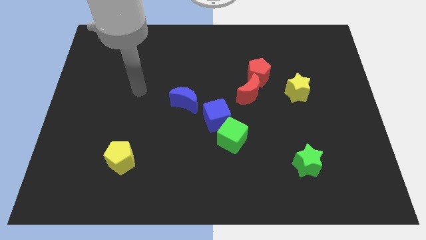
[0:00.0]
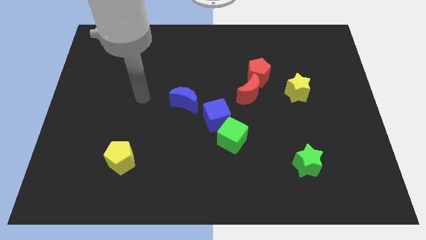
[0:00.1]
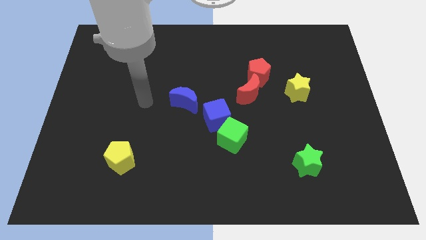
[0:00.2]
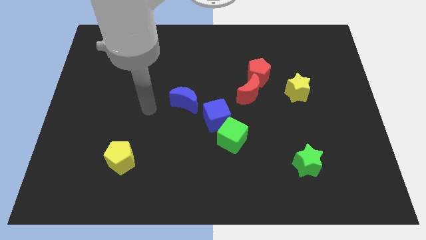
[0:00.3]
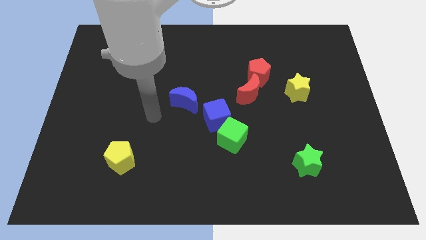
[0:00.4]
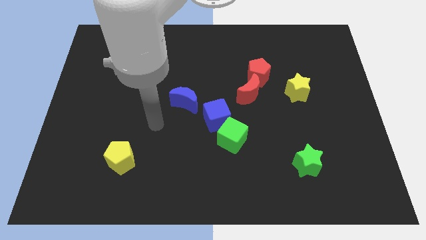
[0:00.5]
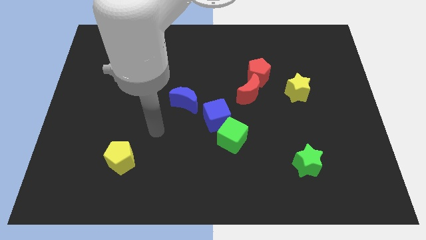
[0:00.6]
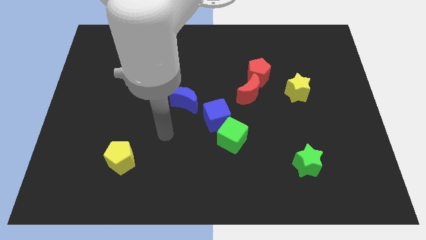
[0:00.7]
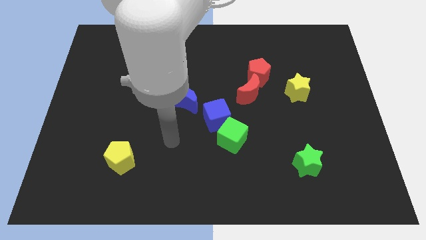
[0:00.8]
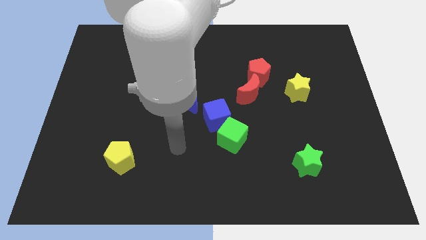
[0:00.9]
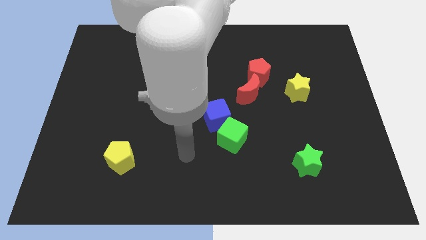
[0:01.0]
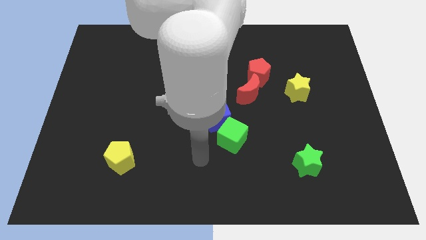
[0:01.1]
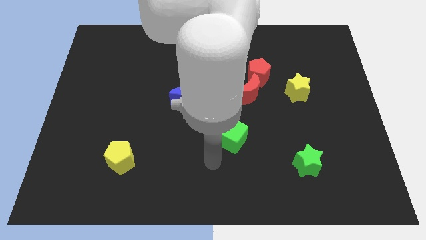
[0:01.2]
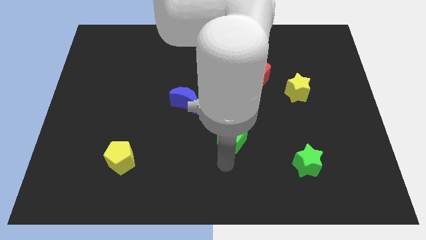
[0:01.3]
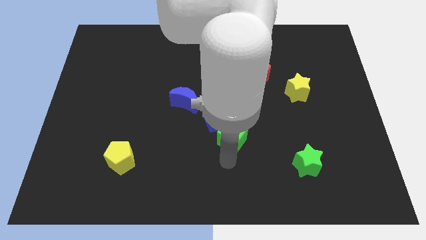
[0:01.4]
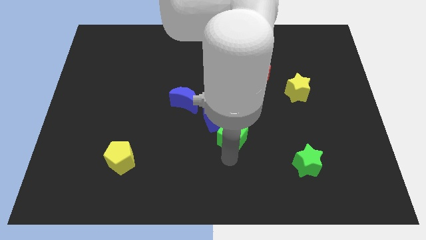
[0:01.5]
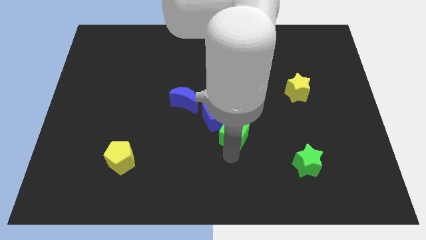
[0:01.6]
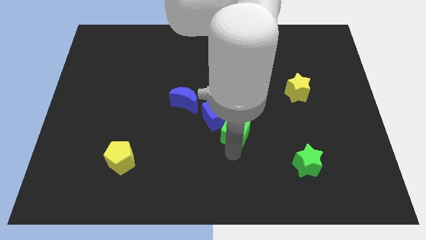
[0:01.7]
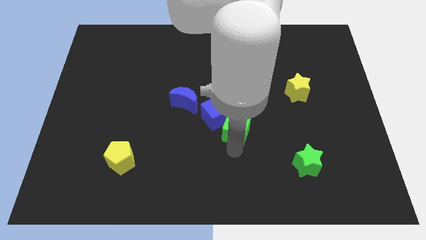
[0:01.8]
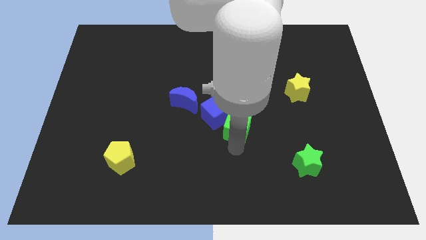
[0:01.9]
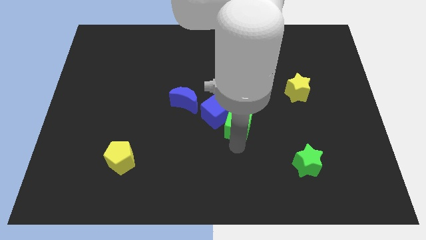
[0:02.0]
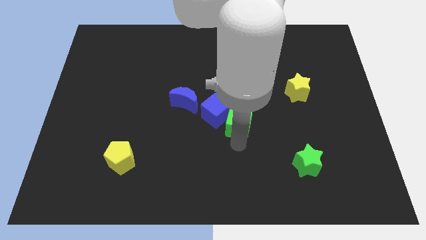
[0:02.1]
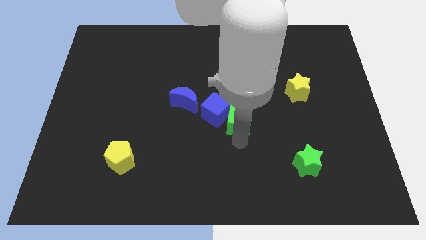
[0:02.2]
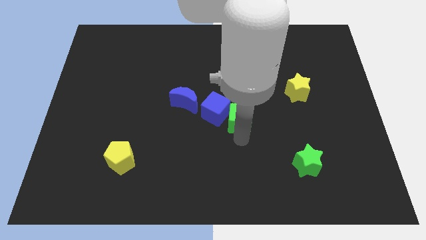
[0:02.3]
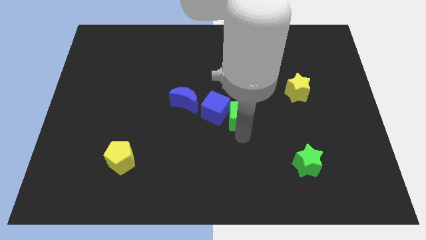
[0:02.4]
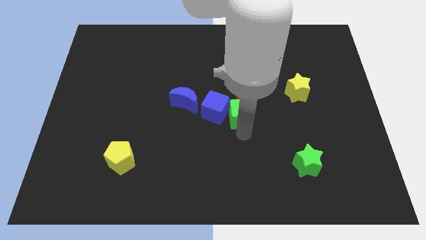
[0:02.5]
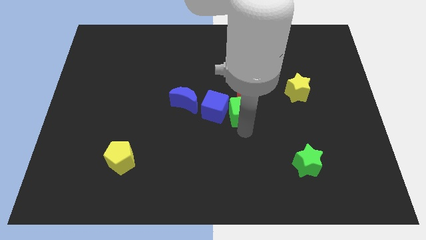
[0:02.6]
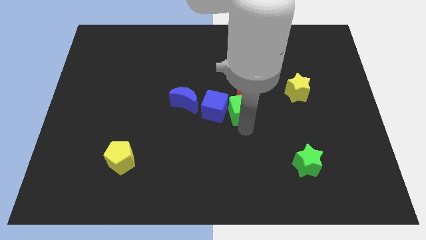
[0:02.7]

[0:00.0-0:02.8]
push the green cube up somewhat

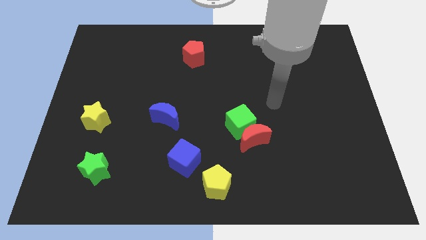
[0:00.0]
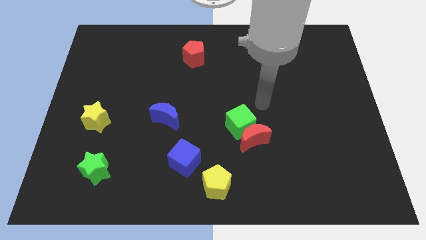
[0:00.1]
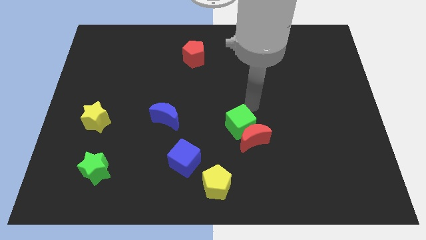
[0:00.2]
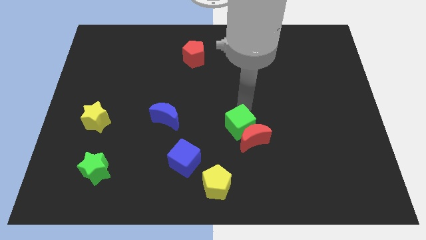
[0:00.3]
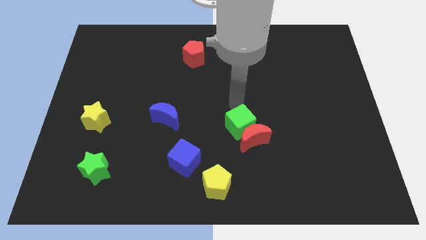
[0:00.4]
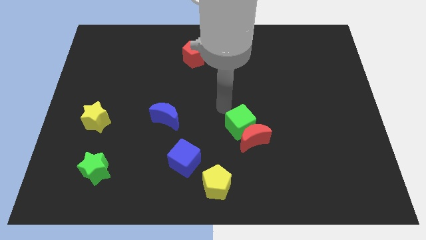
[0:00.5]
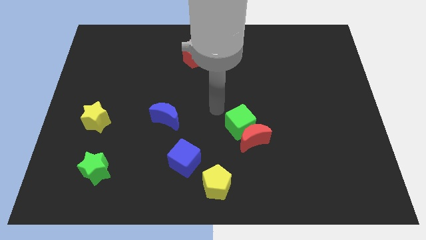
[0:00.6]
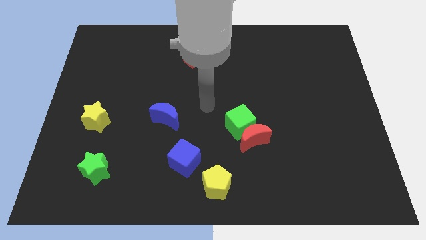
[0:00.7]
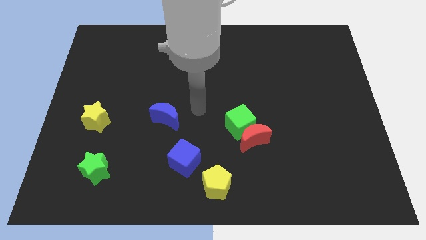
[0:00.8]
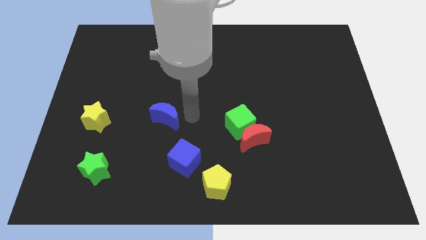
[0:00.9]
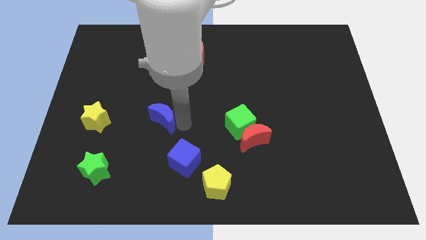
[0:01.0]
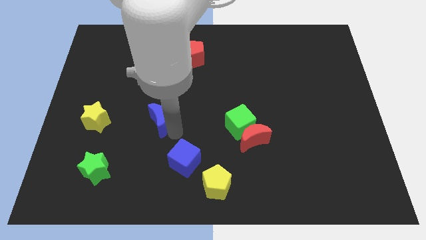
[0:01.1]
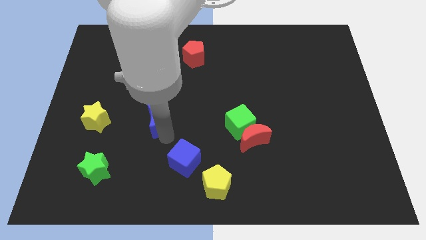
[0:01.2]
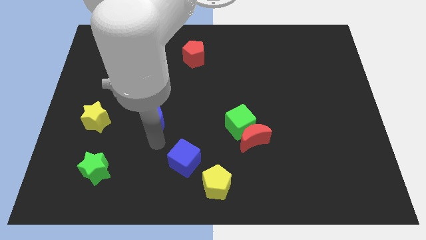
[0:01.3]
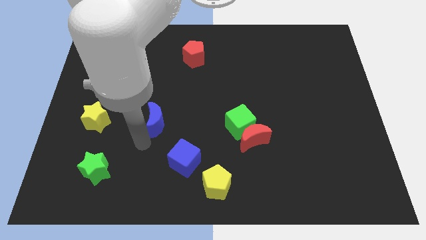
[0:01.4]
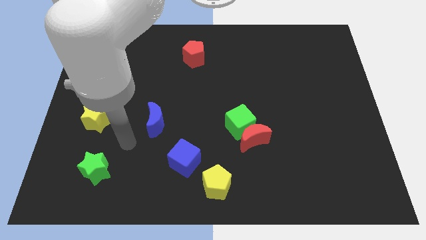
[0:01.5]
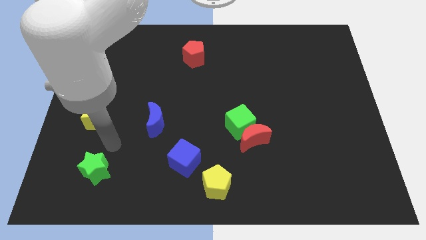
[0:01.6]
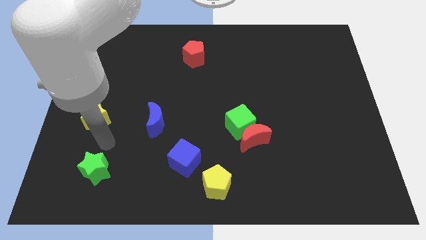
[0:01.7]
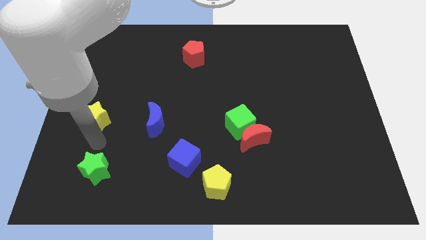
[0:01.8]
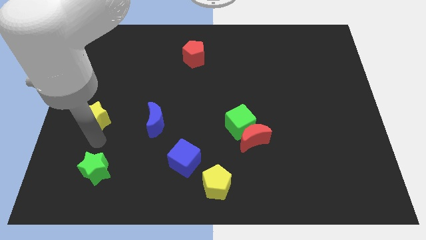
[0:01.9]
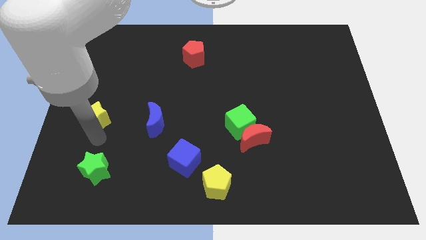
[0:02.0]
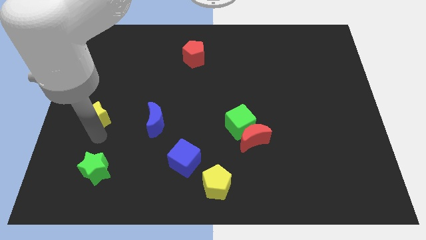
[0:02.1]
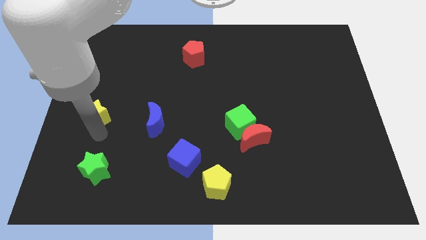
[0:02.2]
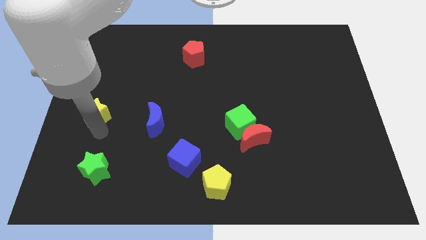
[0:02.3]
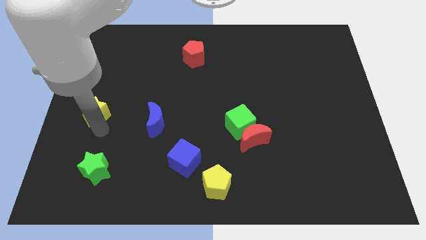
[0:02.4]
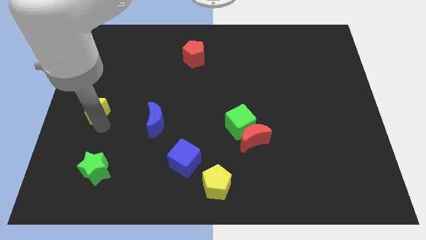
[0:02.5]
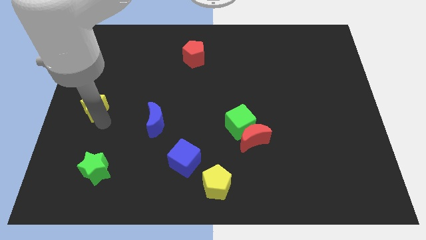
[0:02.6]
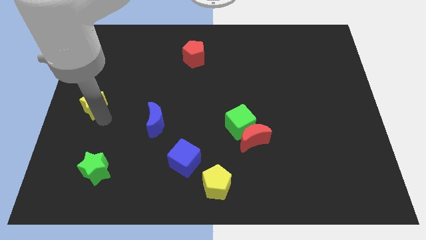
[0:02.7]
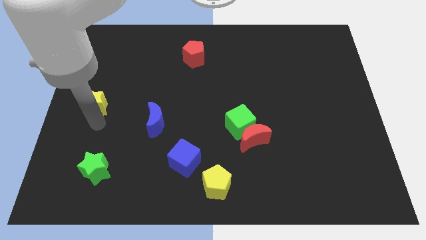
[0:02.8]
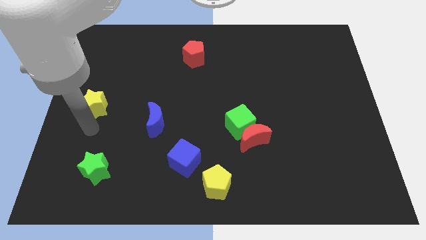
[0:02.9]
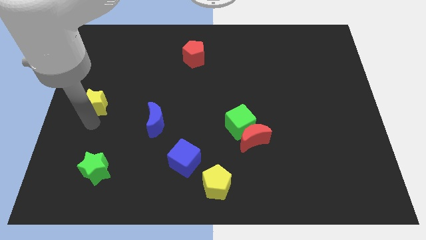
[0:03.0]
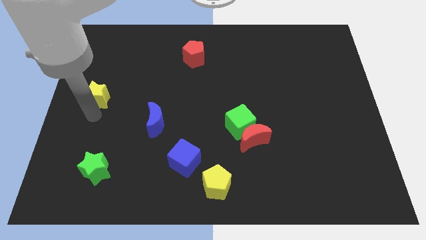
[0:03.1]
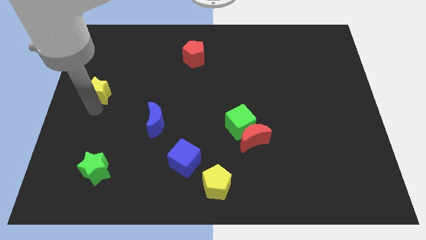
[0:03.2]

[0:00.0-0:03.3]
push the yellow star a little up

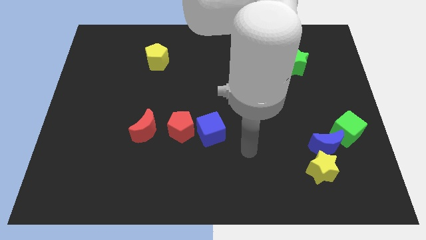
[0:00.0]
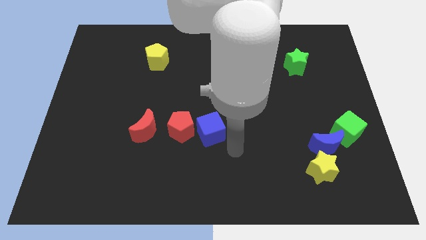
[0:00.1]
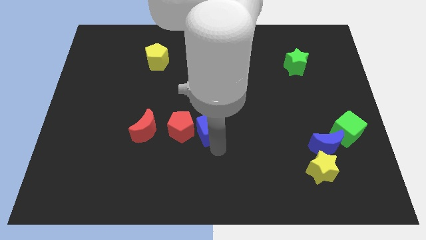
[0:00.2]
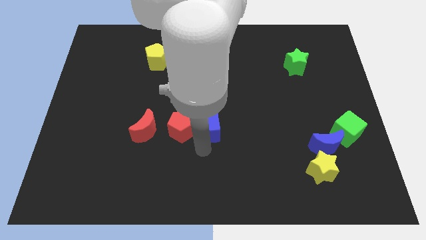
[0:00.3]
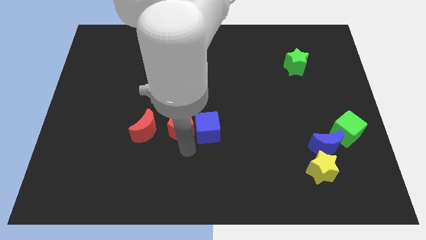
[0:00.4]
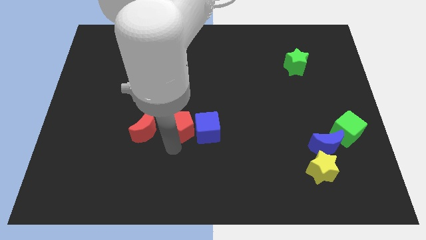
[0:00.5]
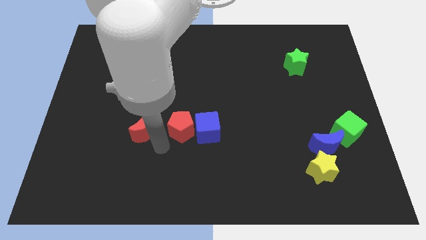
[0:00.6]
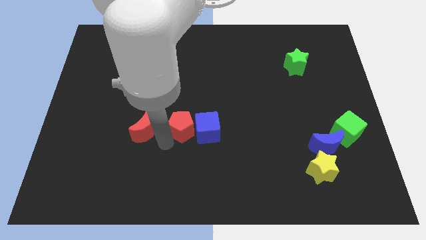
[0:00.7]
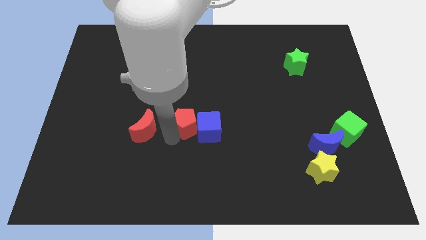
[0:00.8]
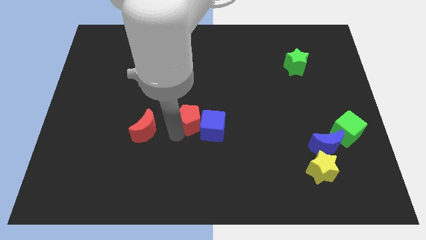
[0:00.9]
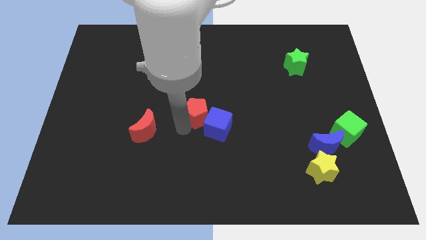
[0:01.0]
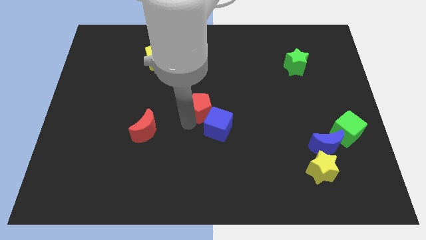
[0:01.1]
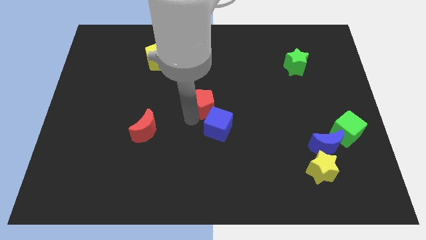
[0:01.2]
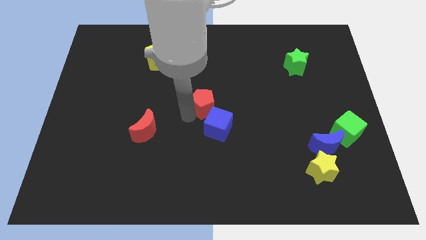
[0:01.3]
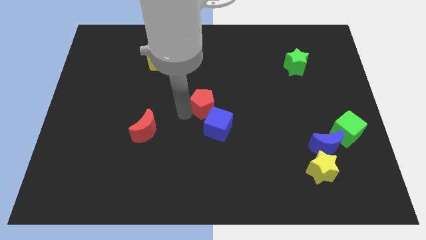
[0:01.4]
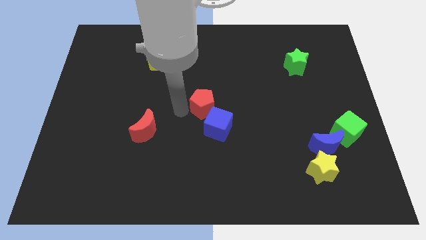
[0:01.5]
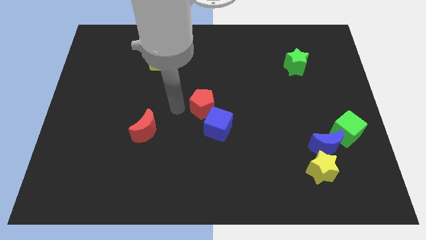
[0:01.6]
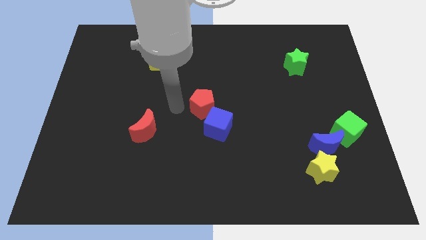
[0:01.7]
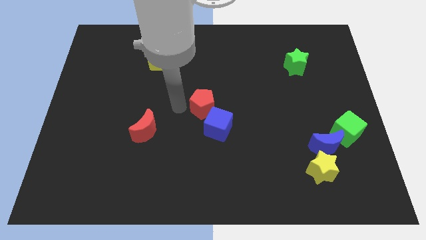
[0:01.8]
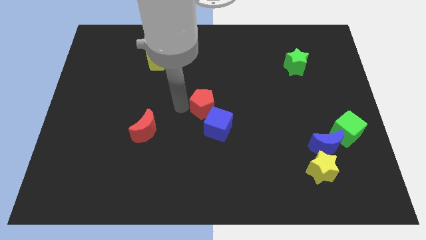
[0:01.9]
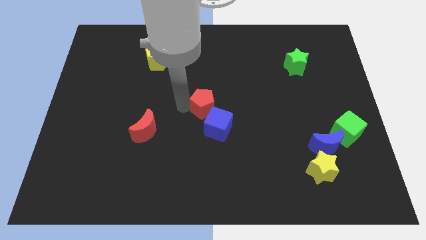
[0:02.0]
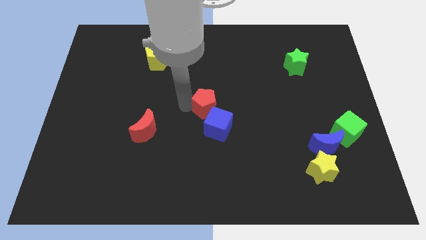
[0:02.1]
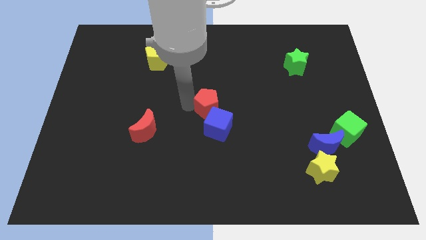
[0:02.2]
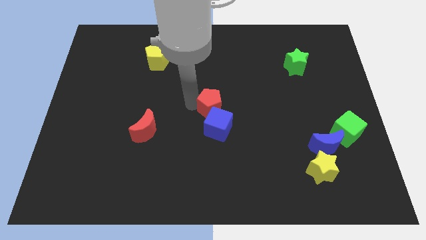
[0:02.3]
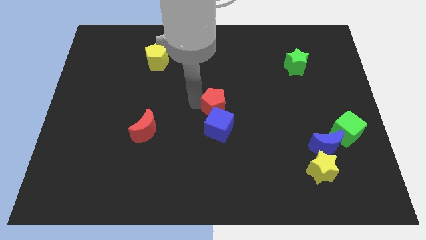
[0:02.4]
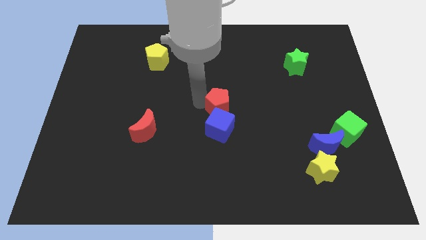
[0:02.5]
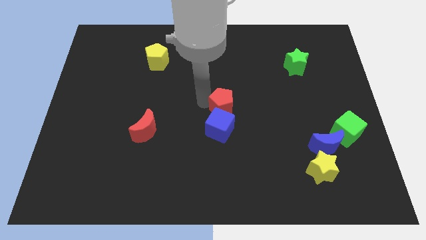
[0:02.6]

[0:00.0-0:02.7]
push the red pentagon a little to the right
